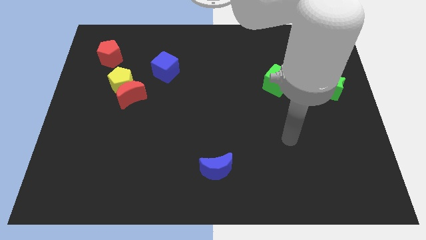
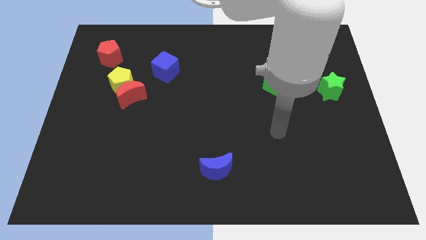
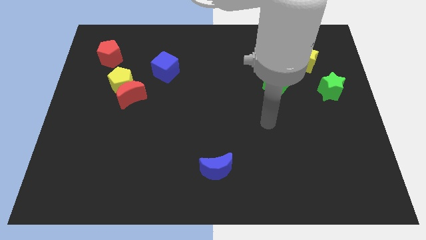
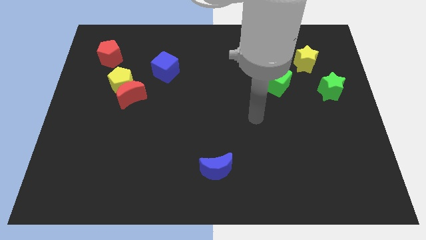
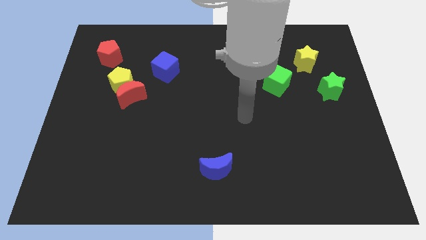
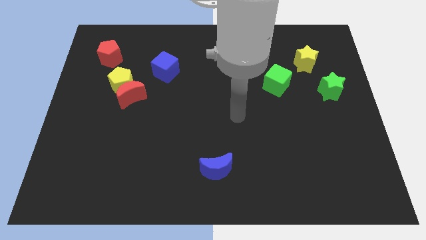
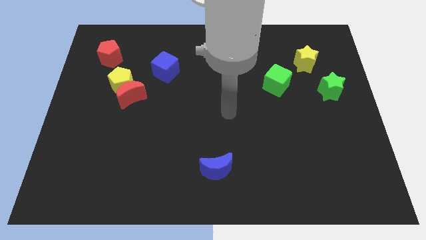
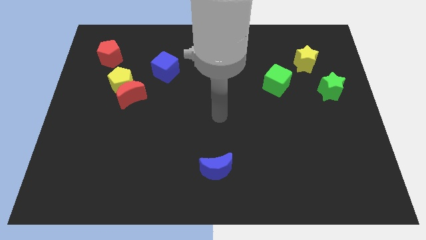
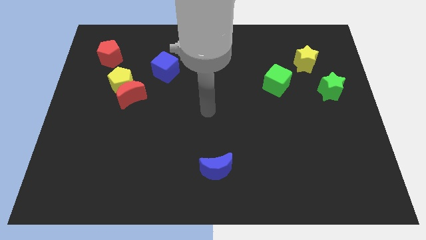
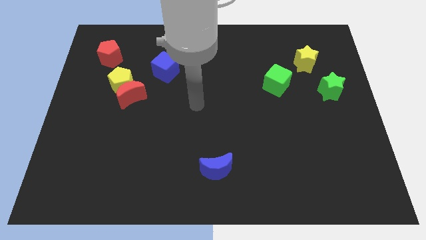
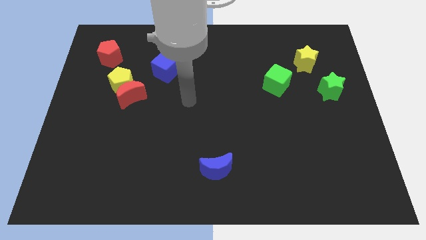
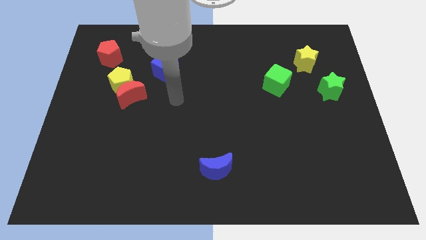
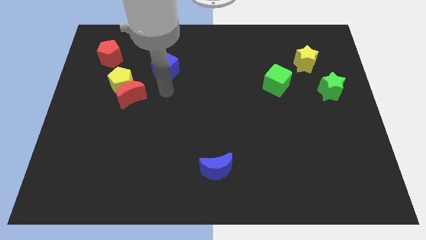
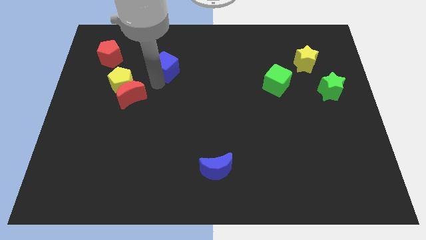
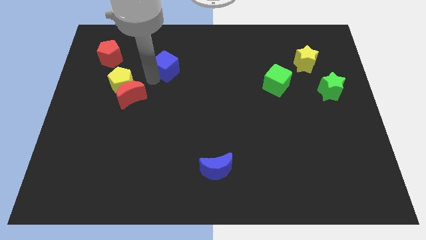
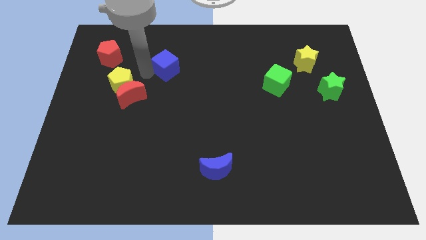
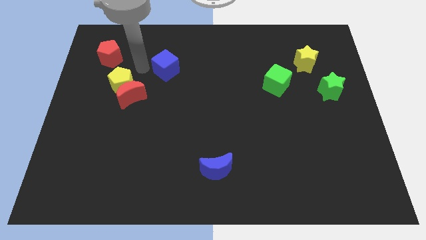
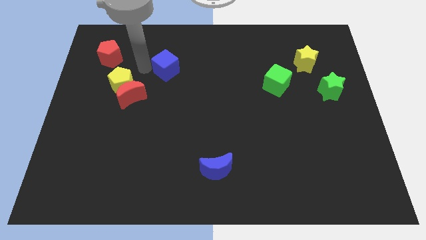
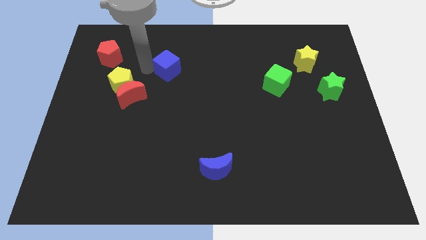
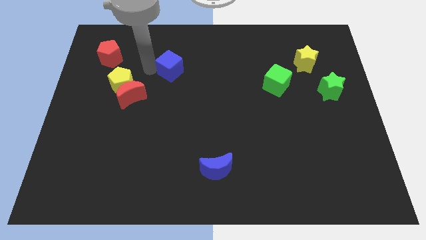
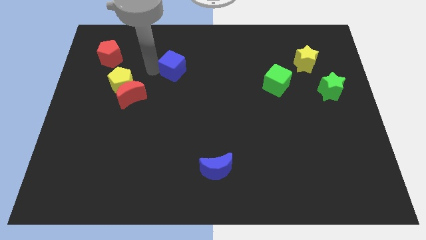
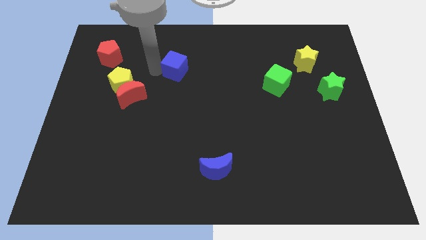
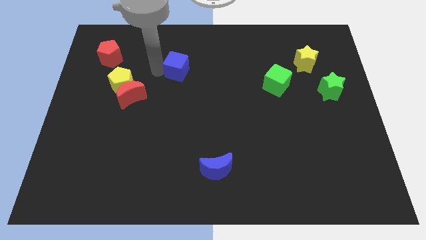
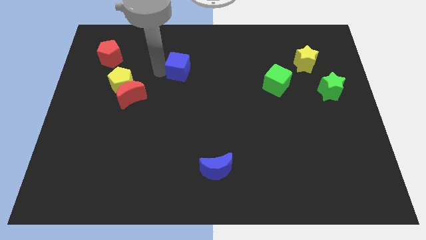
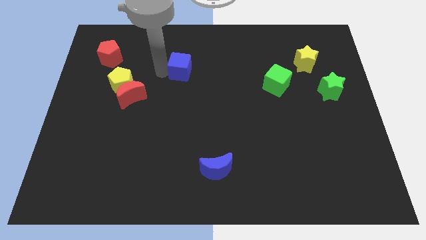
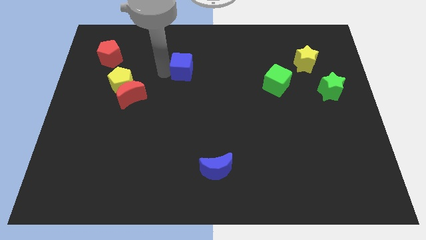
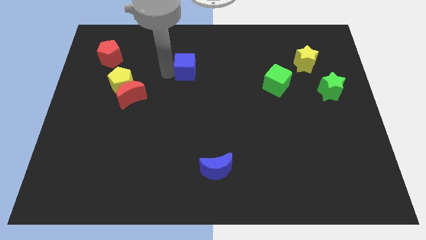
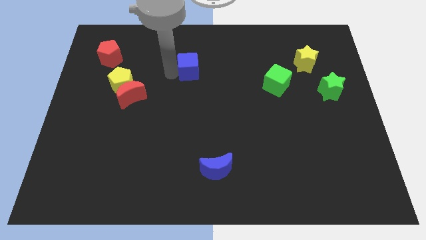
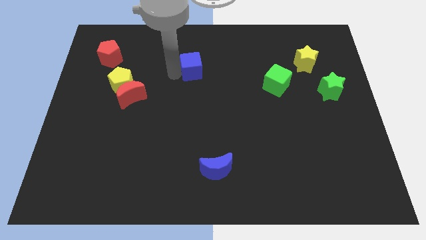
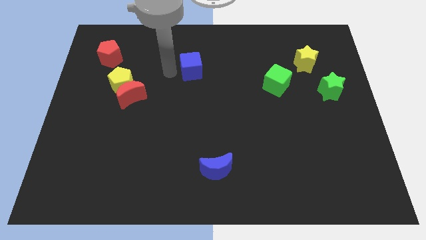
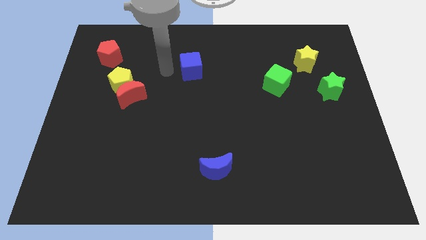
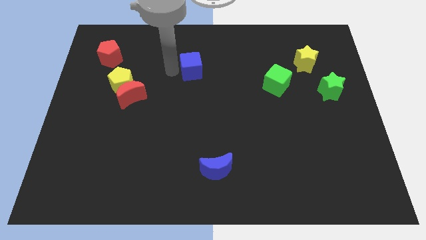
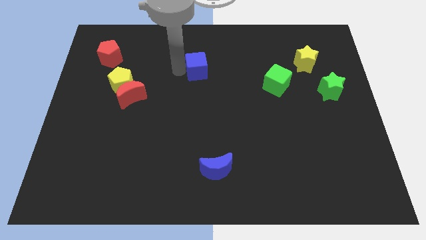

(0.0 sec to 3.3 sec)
slightly push the blue cube right

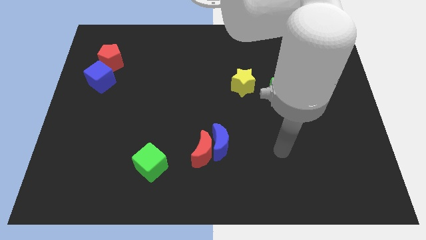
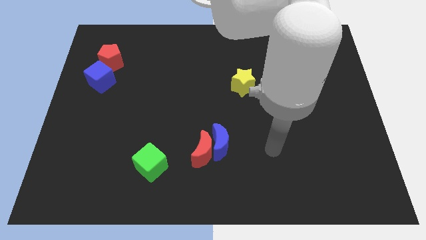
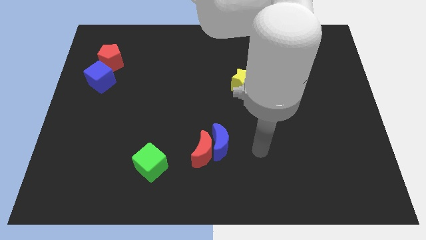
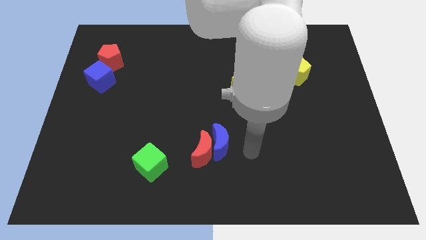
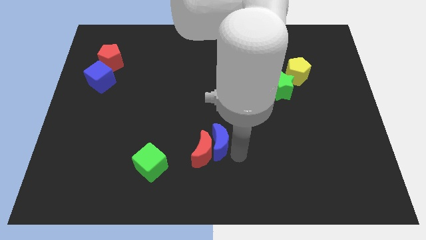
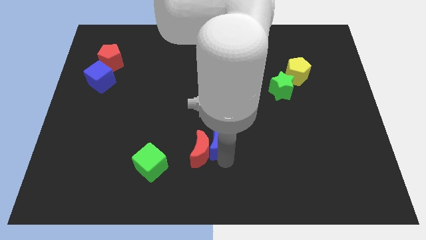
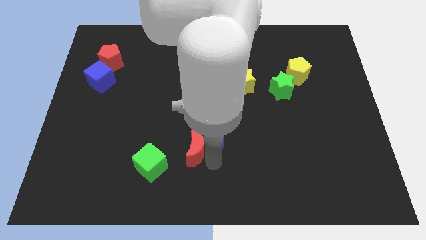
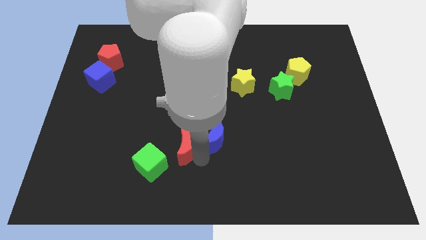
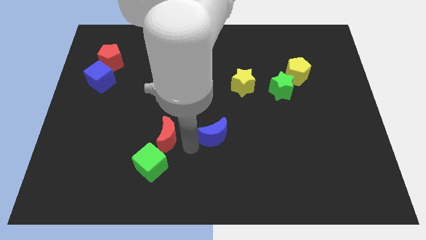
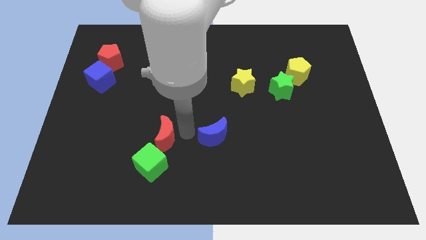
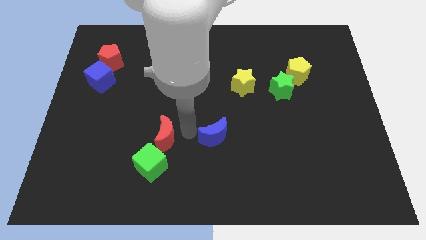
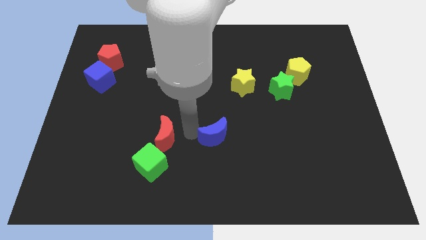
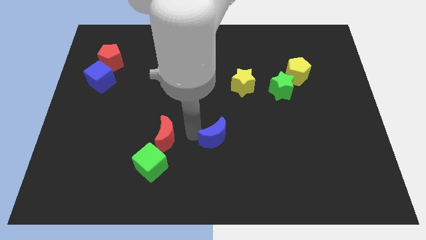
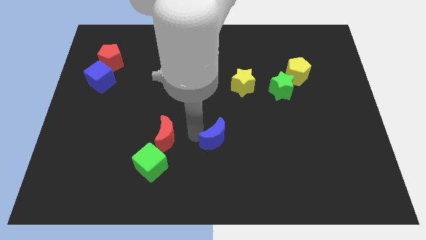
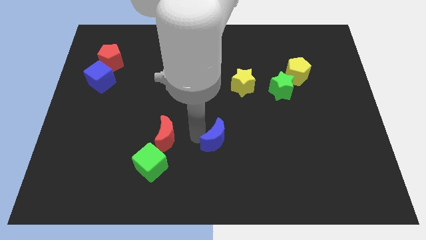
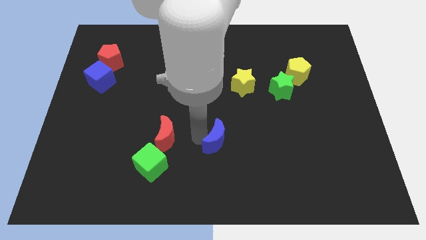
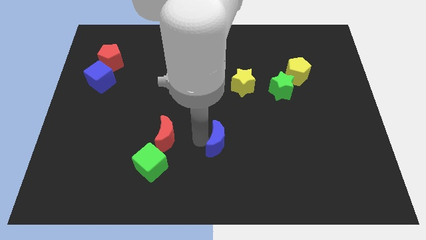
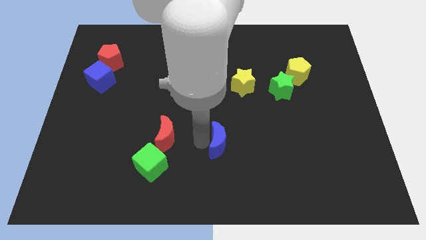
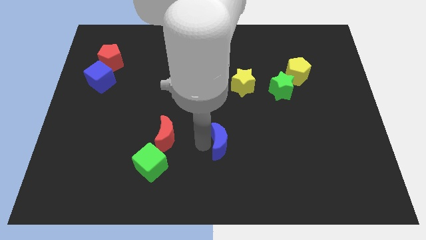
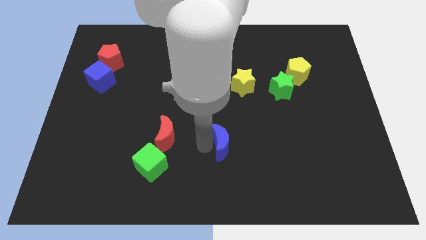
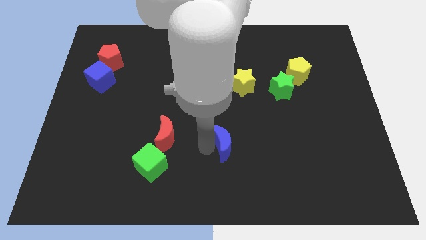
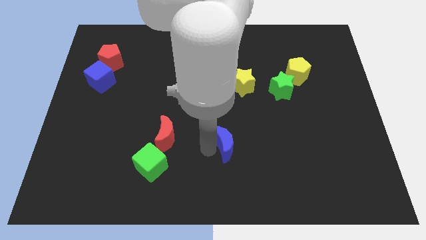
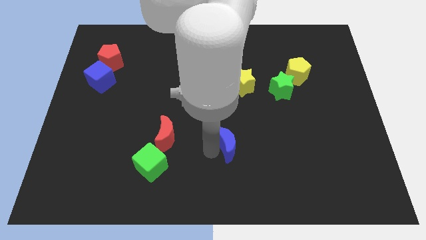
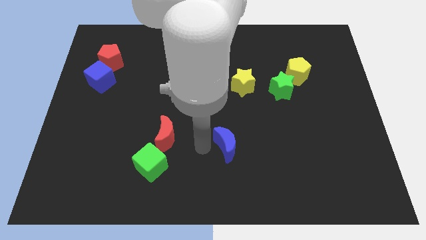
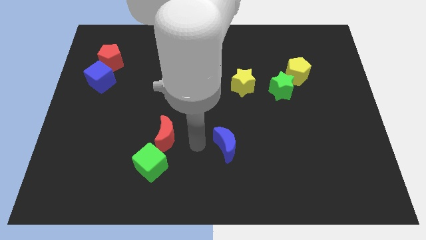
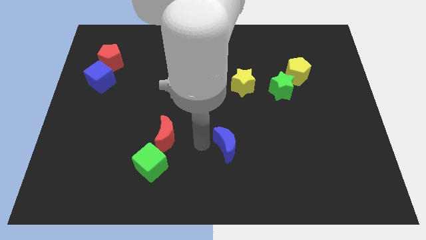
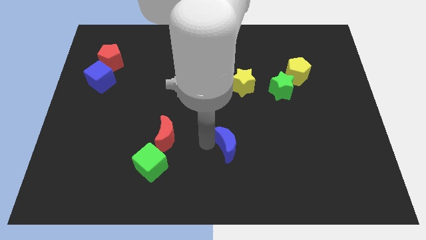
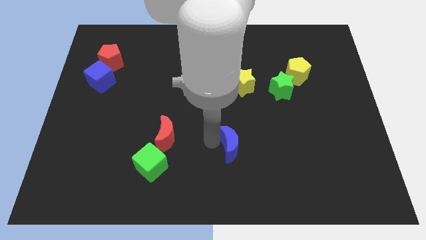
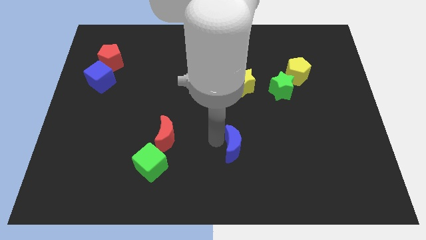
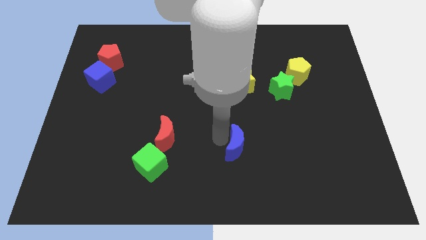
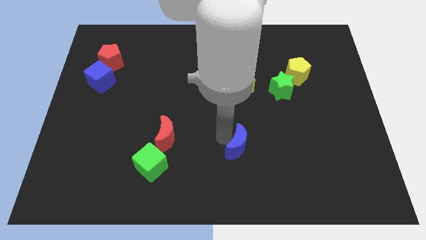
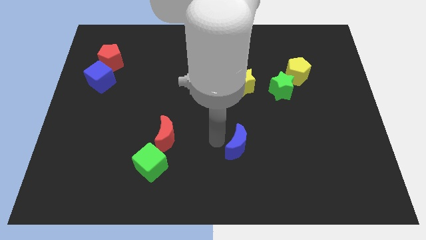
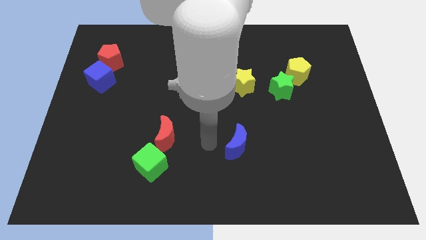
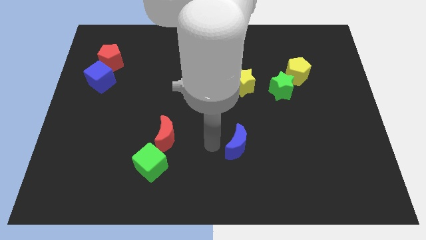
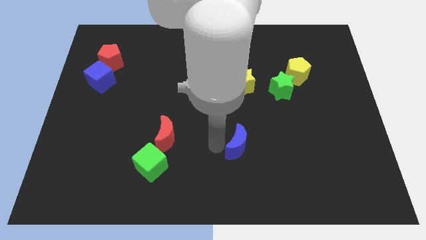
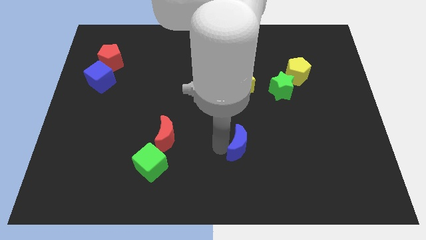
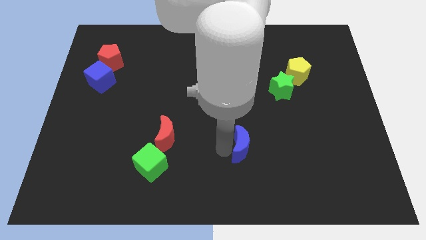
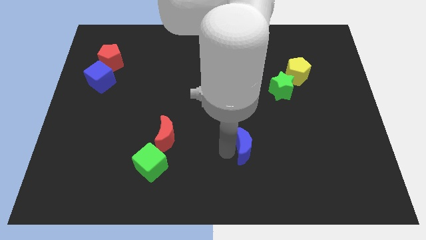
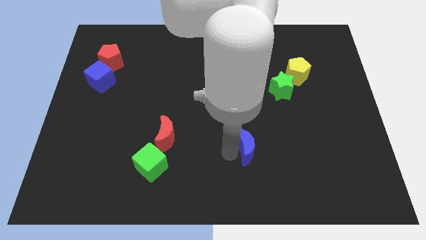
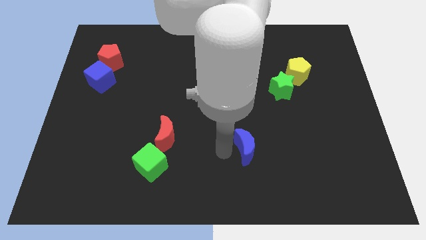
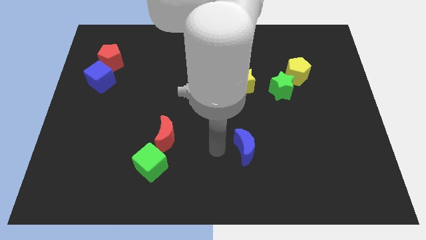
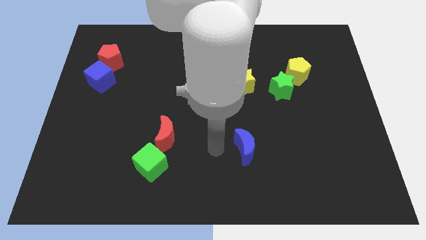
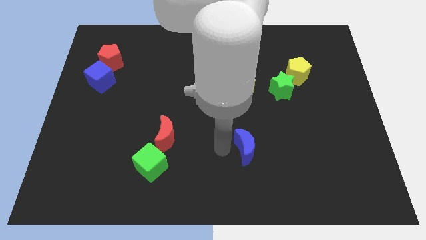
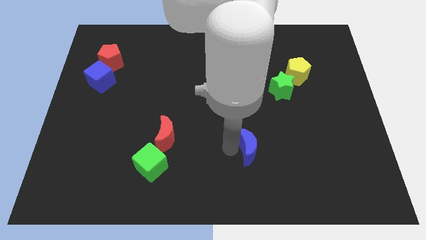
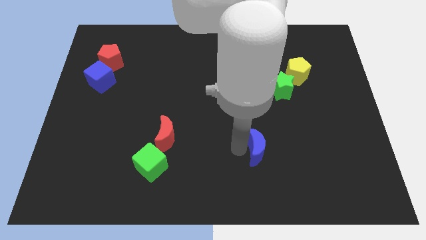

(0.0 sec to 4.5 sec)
push the blue moon a little right

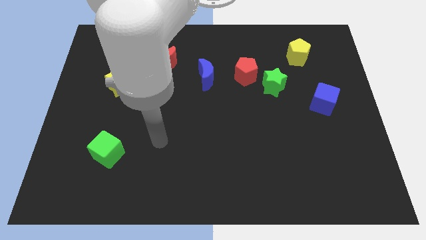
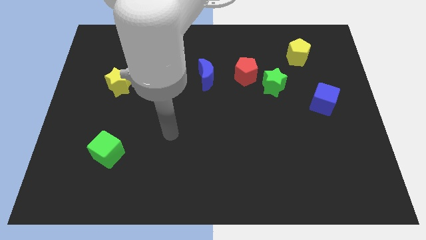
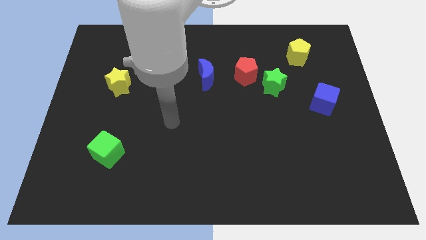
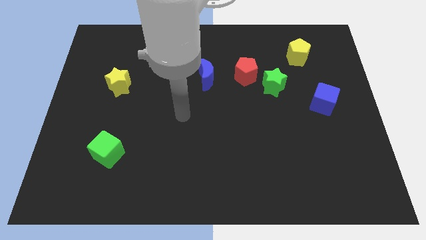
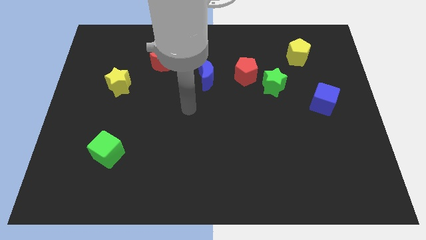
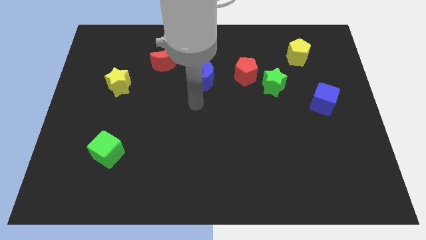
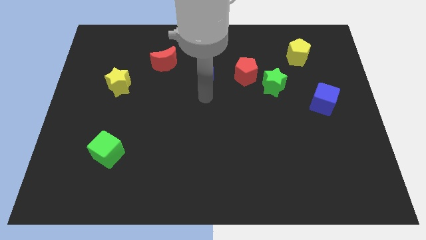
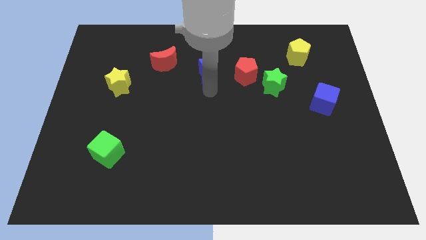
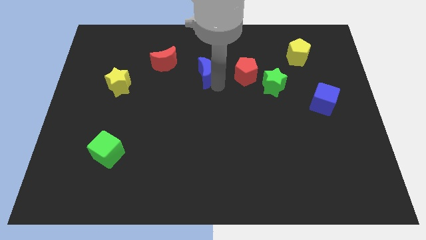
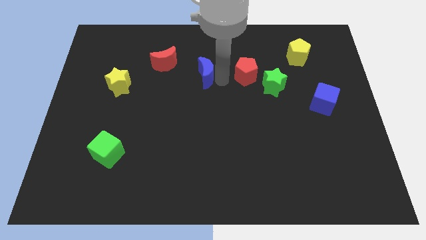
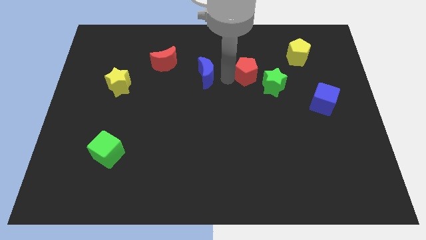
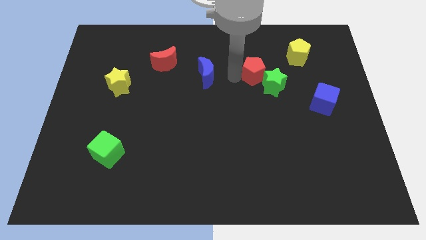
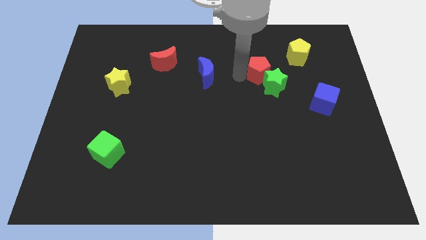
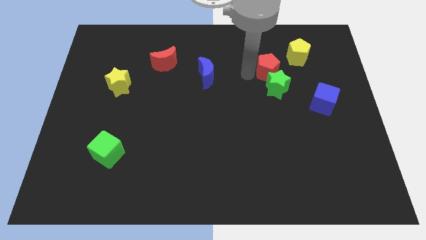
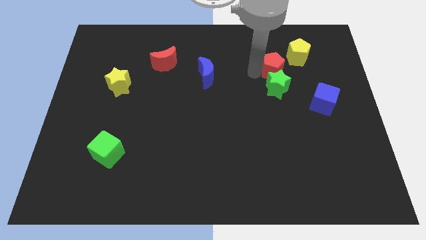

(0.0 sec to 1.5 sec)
push the red pentagon slightly to the right
